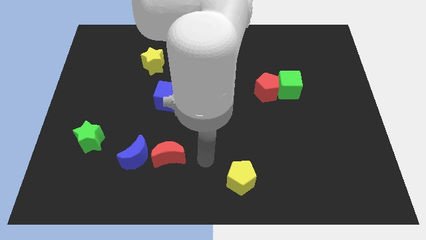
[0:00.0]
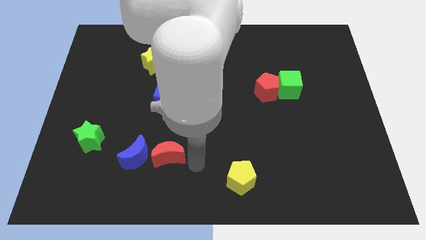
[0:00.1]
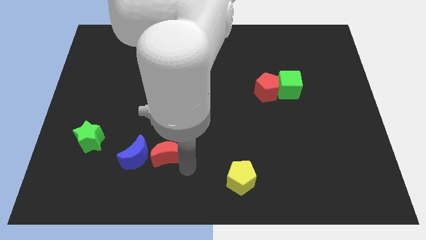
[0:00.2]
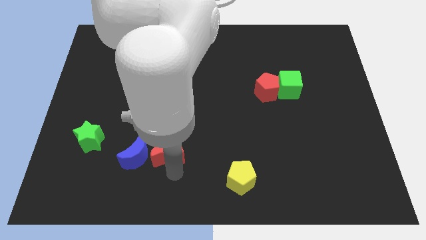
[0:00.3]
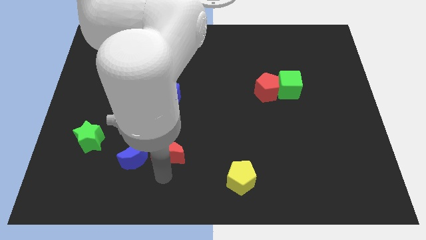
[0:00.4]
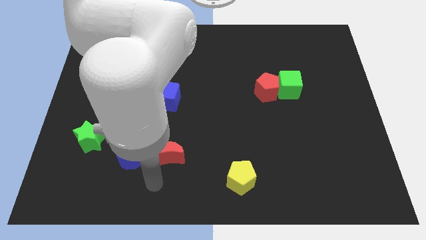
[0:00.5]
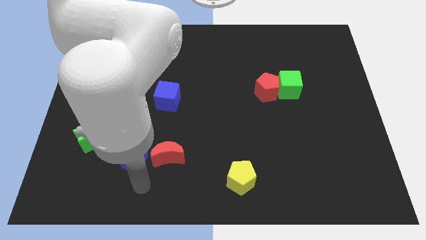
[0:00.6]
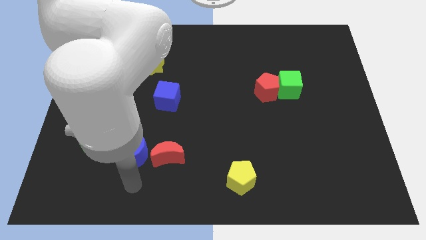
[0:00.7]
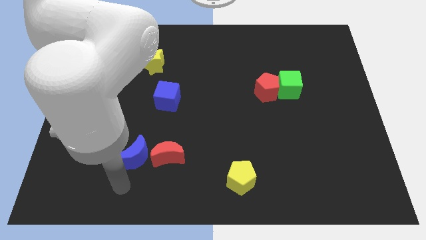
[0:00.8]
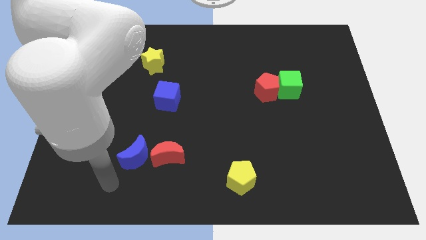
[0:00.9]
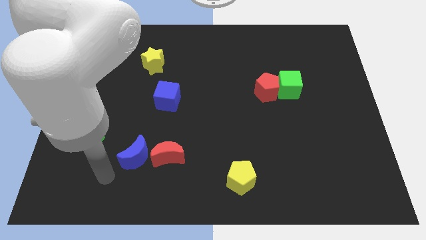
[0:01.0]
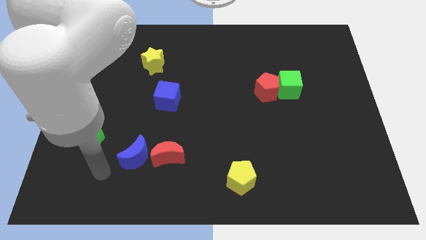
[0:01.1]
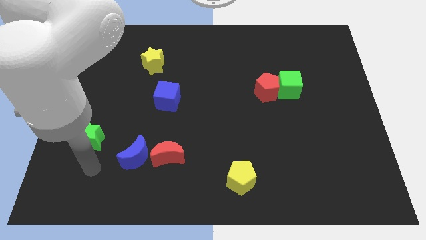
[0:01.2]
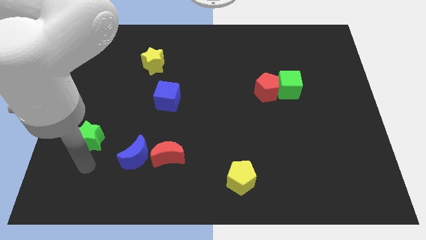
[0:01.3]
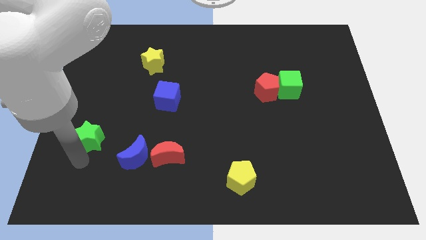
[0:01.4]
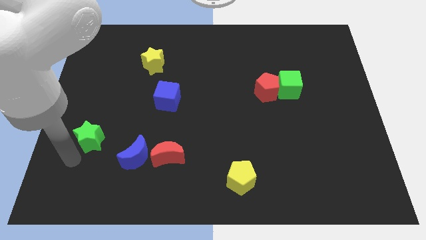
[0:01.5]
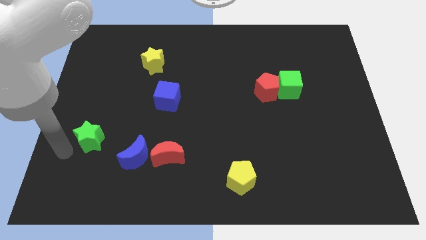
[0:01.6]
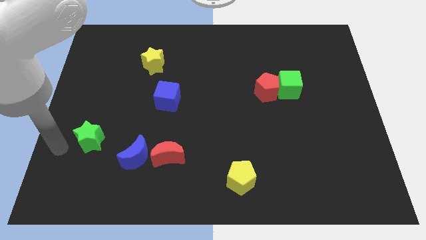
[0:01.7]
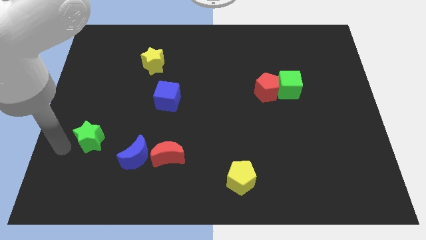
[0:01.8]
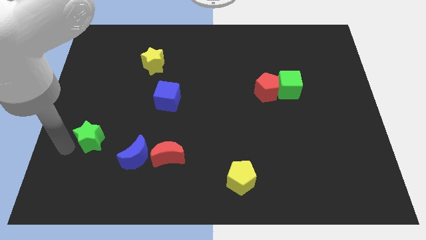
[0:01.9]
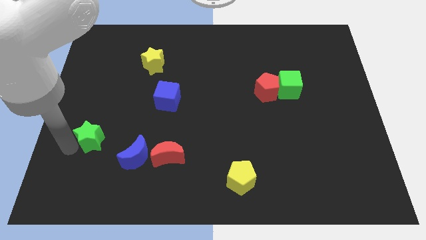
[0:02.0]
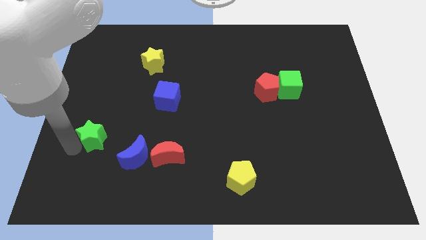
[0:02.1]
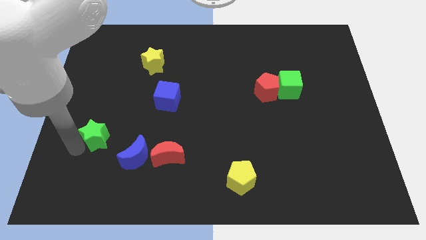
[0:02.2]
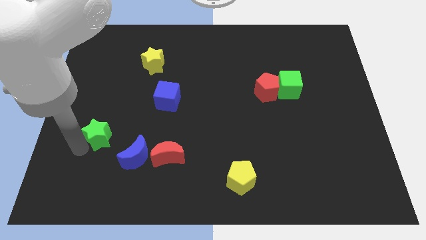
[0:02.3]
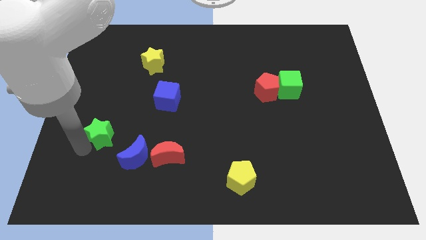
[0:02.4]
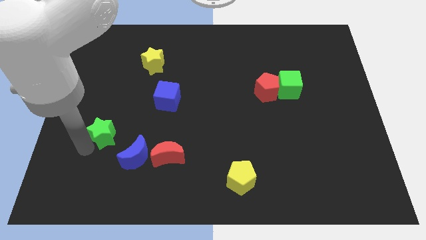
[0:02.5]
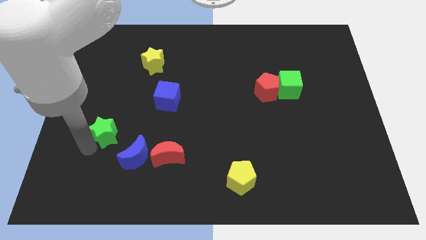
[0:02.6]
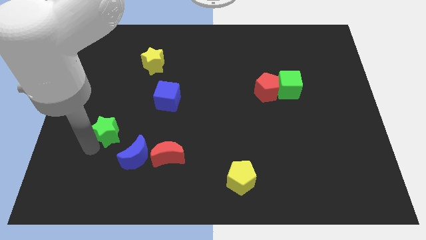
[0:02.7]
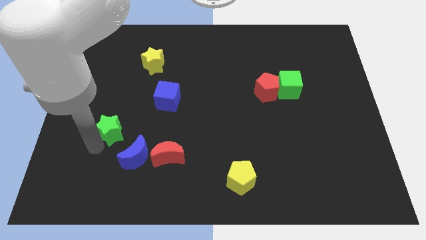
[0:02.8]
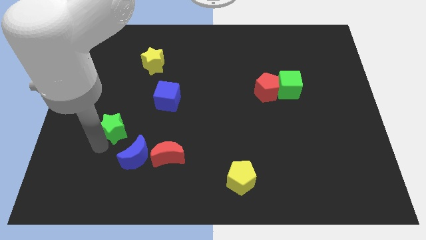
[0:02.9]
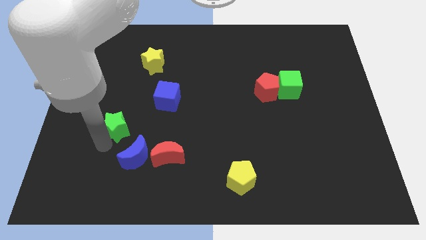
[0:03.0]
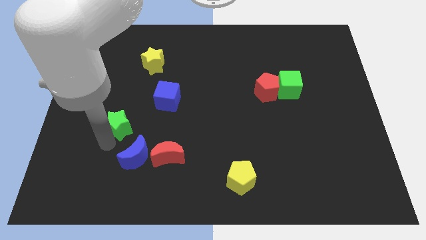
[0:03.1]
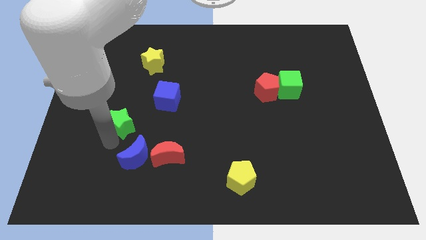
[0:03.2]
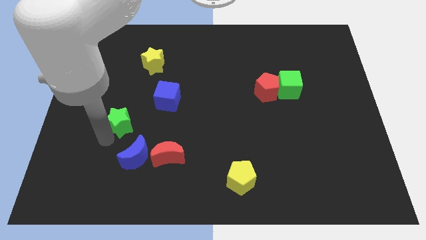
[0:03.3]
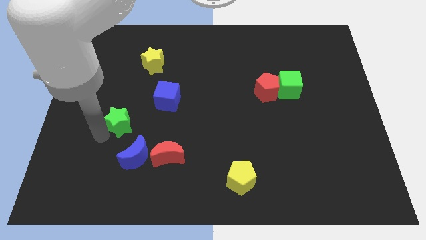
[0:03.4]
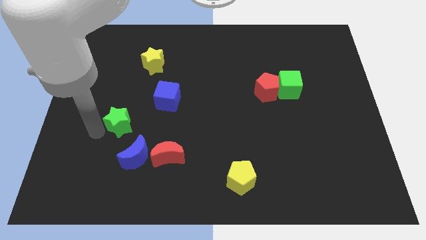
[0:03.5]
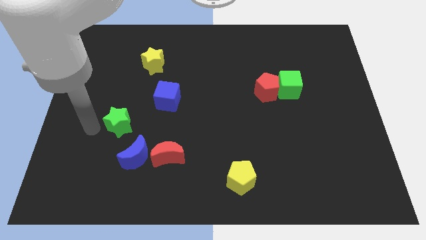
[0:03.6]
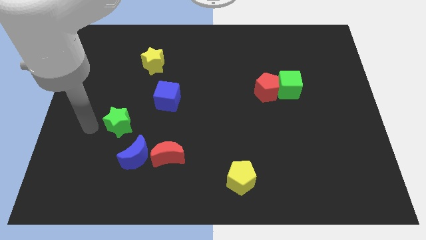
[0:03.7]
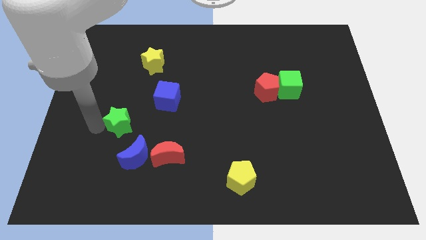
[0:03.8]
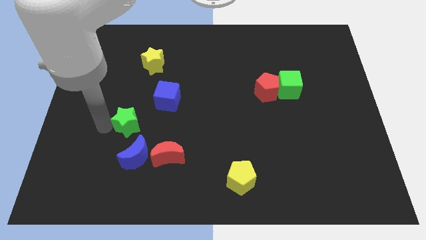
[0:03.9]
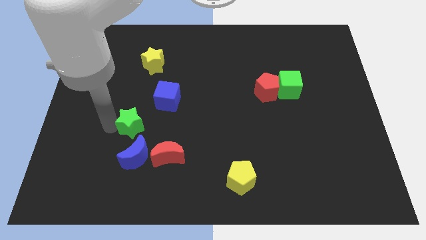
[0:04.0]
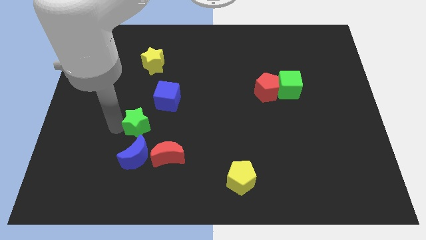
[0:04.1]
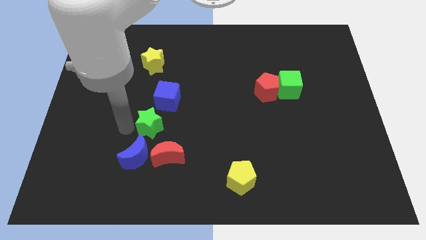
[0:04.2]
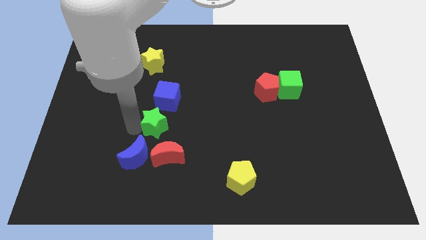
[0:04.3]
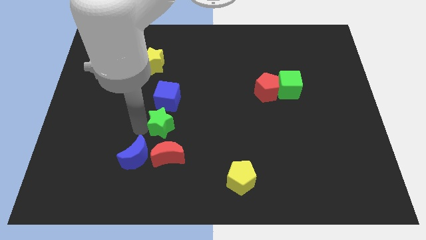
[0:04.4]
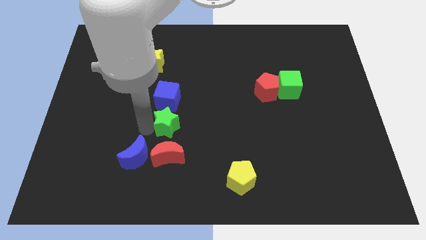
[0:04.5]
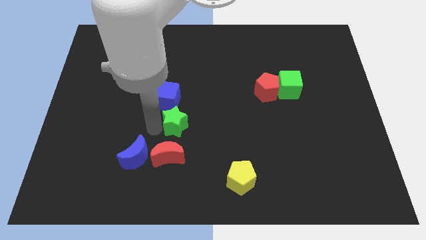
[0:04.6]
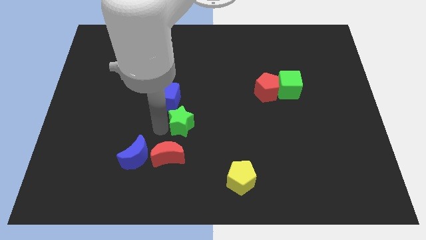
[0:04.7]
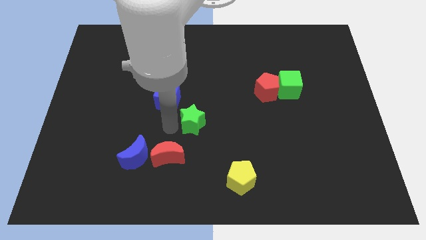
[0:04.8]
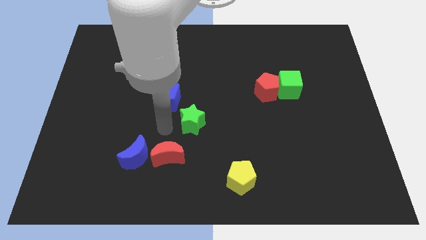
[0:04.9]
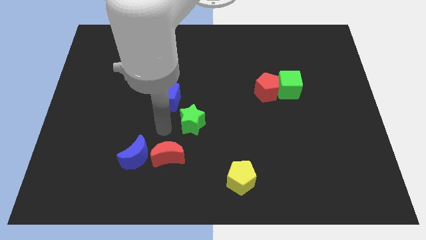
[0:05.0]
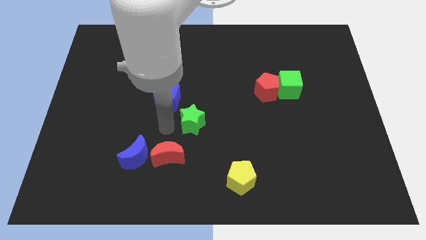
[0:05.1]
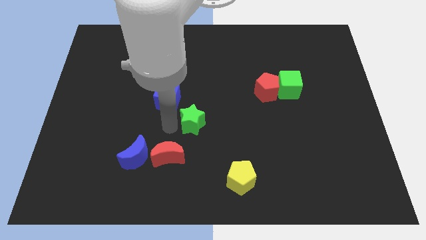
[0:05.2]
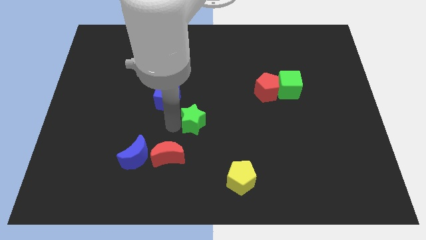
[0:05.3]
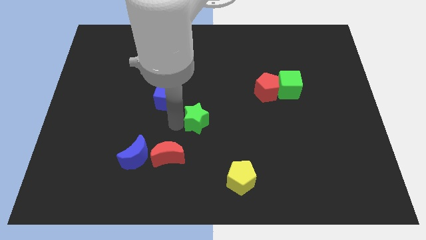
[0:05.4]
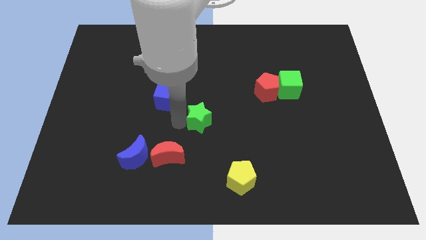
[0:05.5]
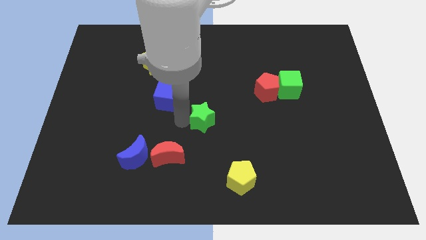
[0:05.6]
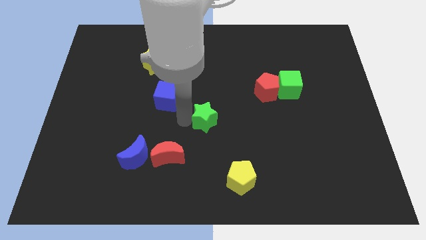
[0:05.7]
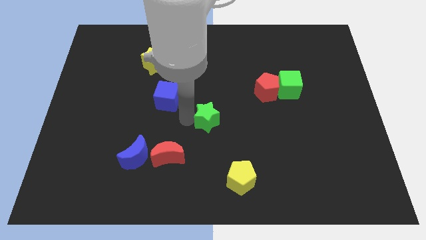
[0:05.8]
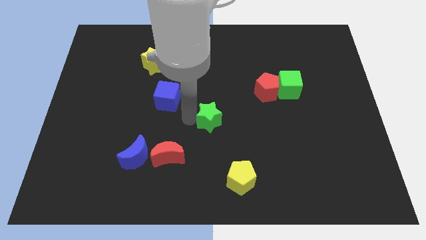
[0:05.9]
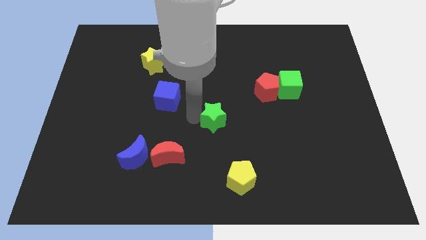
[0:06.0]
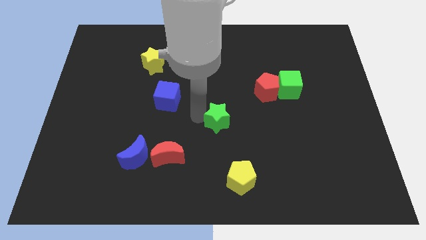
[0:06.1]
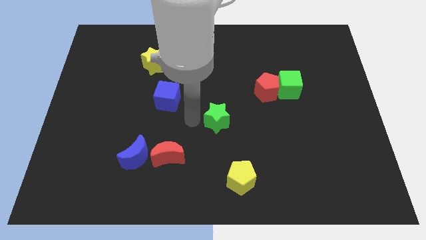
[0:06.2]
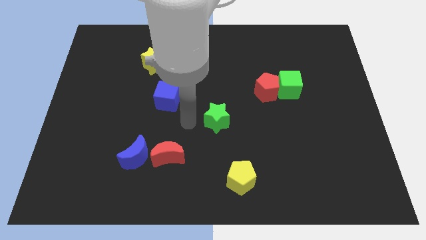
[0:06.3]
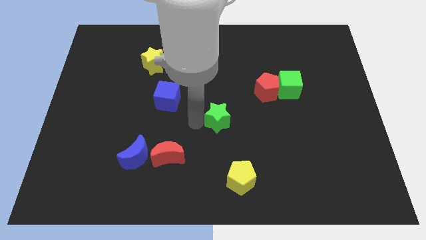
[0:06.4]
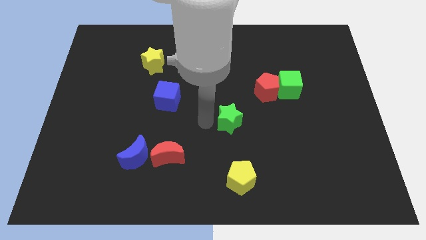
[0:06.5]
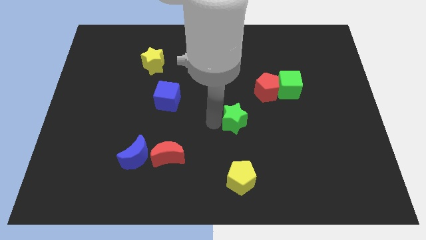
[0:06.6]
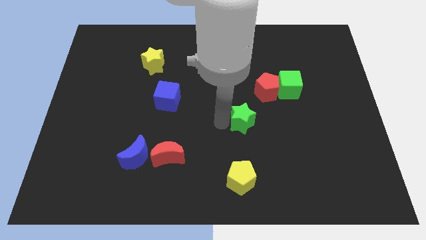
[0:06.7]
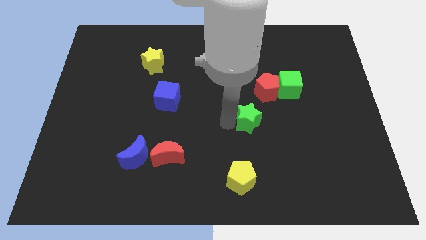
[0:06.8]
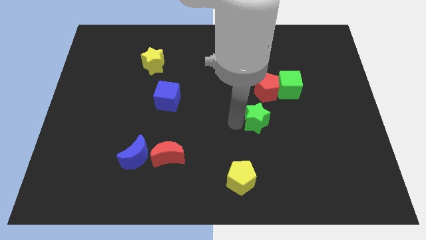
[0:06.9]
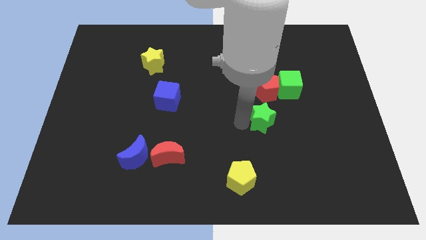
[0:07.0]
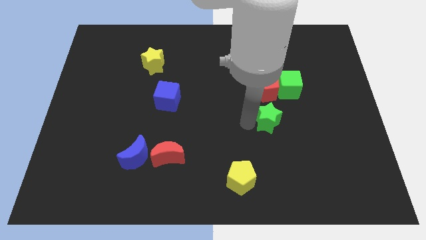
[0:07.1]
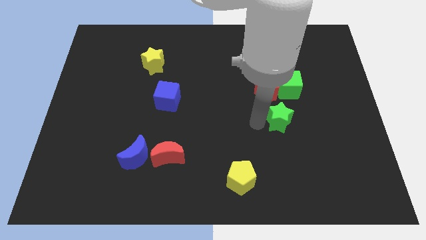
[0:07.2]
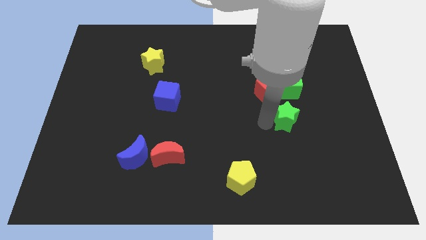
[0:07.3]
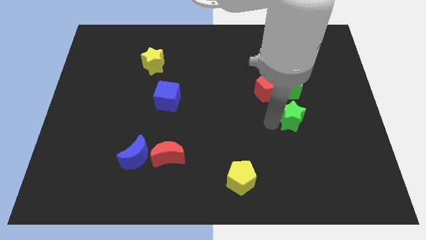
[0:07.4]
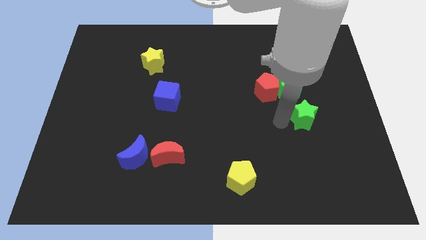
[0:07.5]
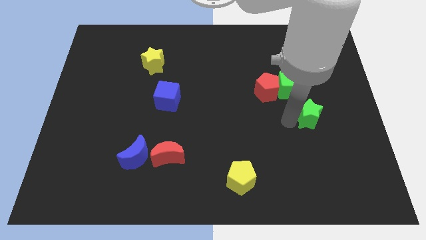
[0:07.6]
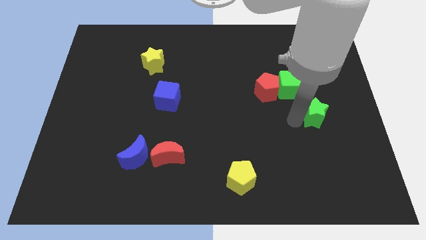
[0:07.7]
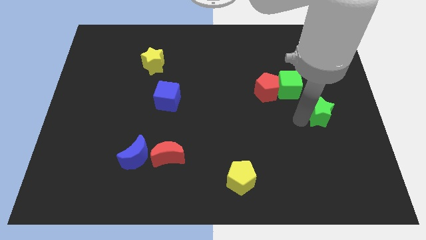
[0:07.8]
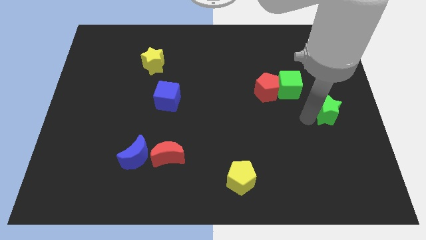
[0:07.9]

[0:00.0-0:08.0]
slide the green star to the center right
